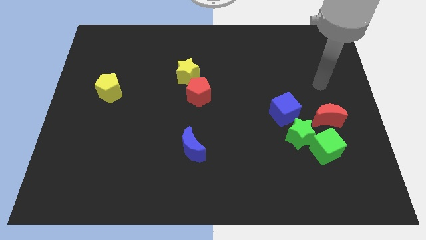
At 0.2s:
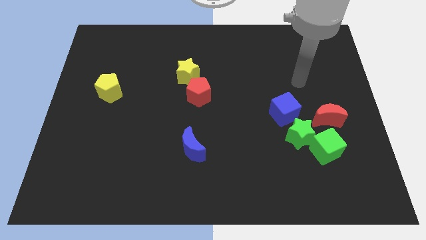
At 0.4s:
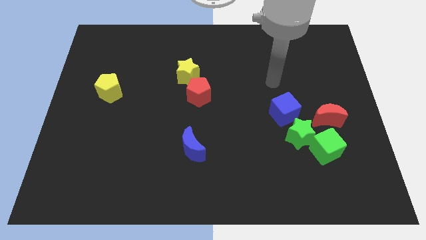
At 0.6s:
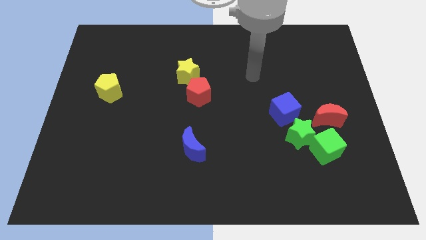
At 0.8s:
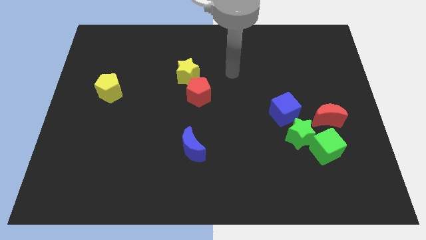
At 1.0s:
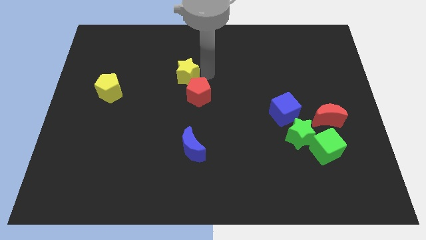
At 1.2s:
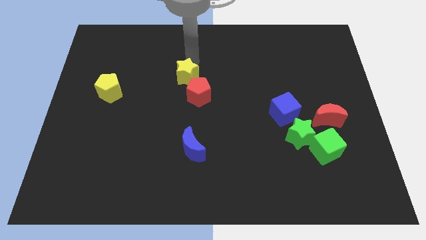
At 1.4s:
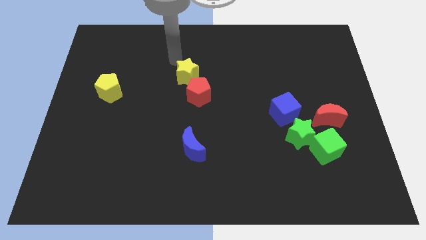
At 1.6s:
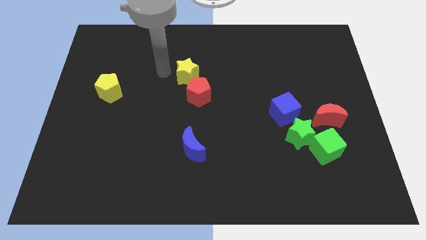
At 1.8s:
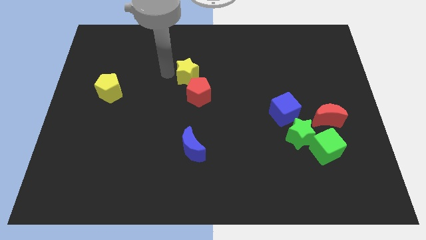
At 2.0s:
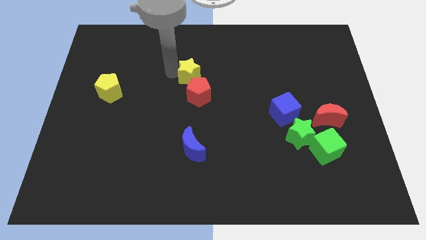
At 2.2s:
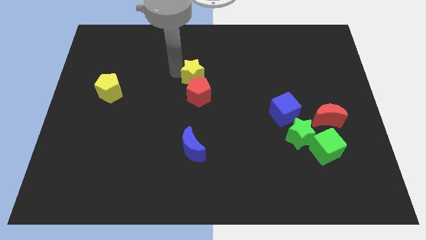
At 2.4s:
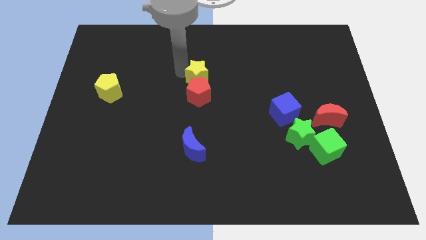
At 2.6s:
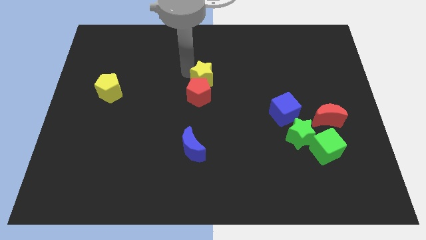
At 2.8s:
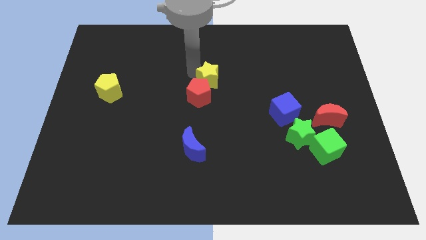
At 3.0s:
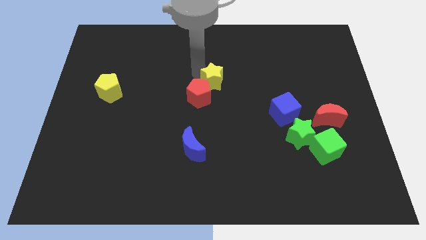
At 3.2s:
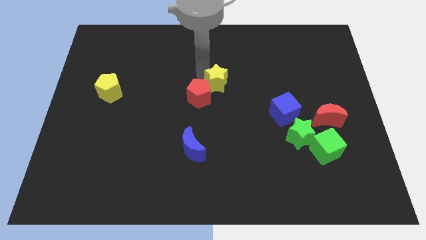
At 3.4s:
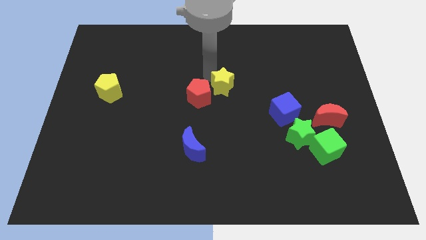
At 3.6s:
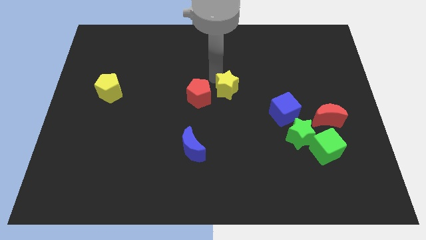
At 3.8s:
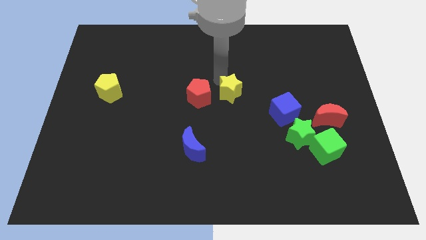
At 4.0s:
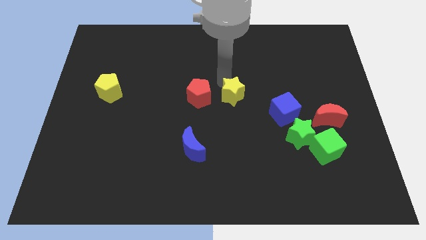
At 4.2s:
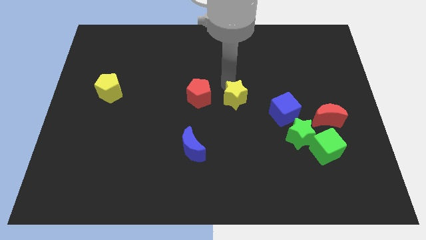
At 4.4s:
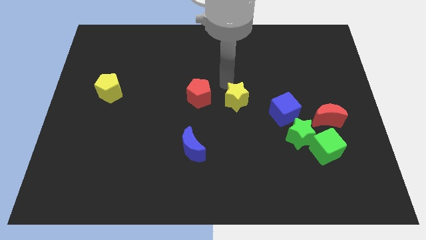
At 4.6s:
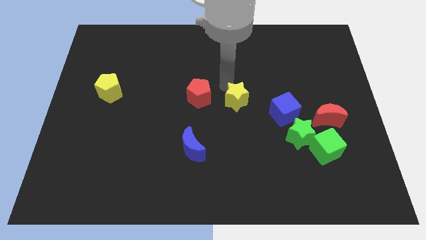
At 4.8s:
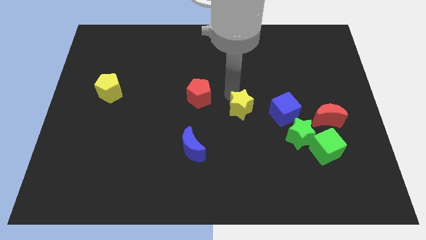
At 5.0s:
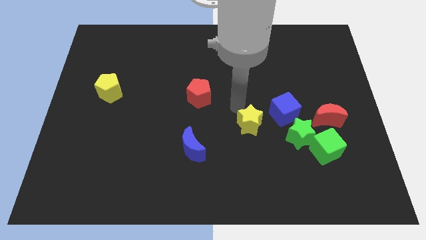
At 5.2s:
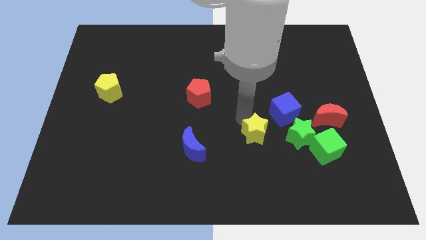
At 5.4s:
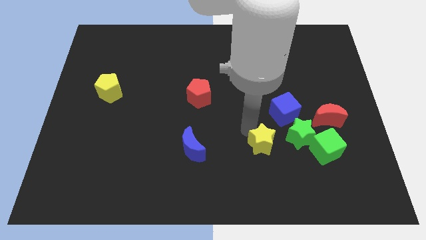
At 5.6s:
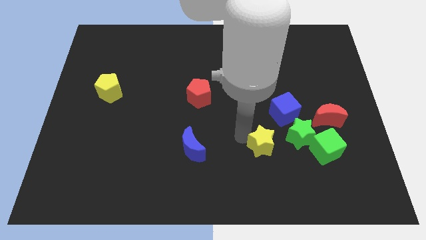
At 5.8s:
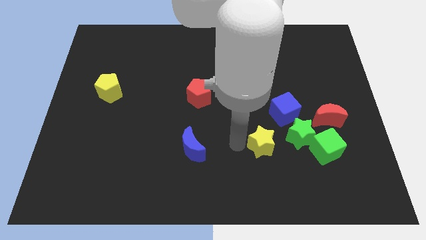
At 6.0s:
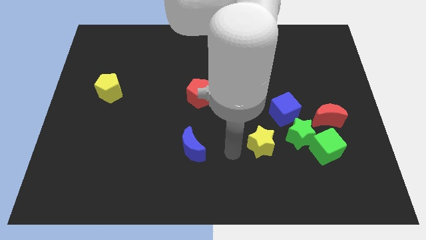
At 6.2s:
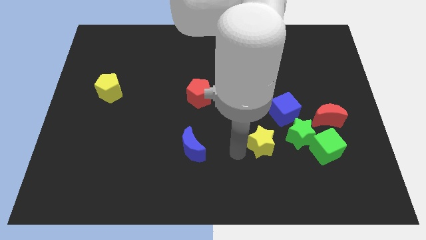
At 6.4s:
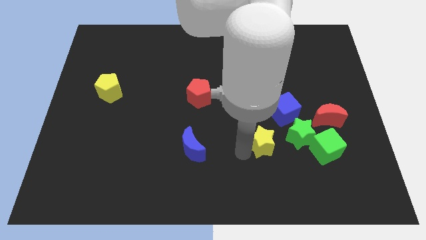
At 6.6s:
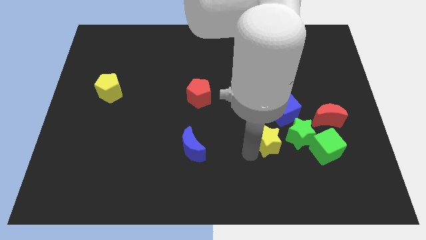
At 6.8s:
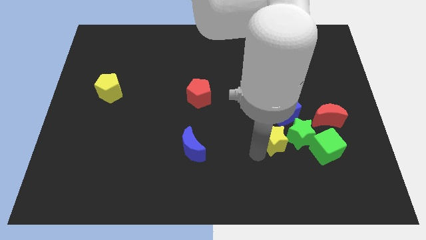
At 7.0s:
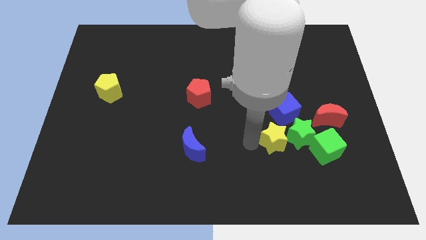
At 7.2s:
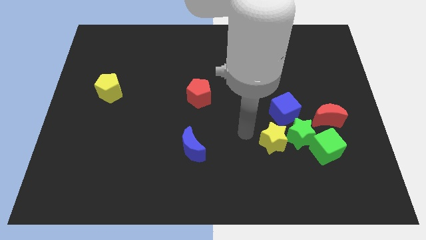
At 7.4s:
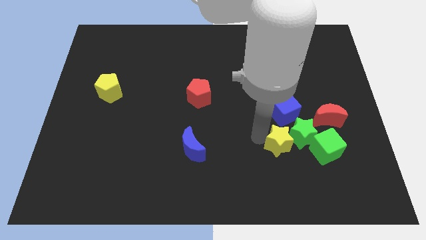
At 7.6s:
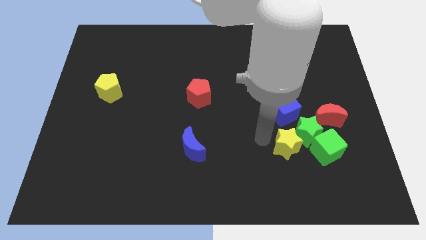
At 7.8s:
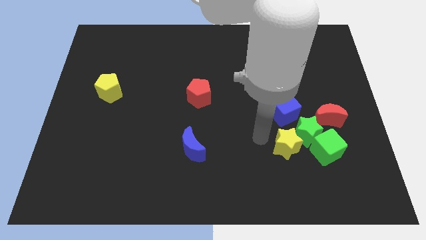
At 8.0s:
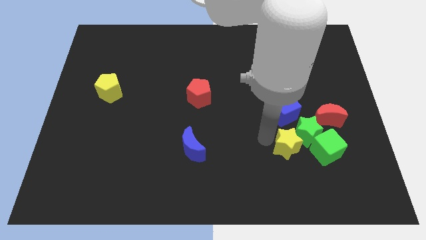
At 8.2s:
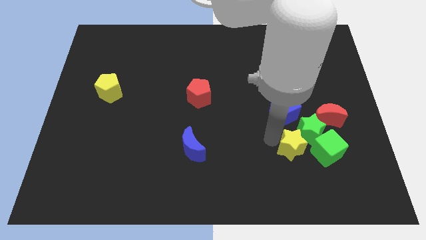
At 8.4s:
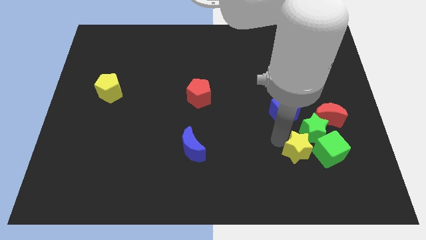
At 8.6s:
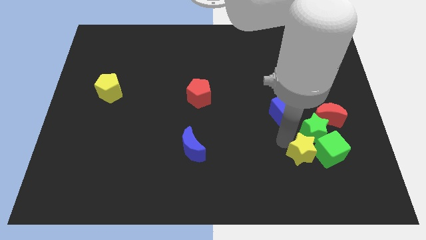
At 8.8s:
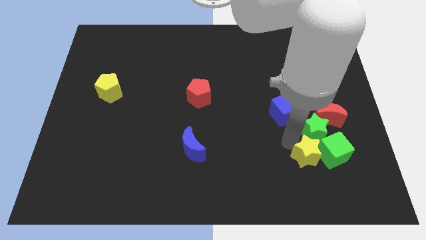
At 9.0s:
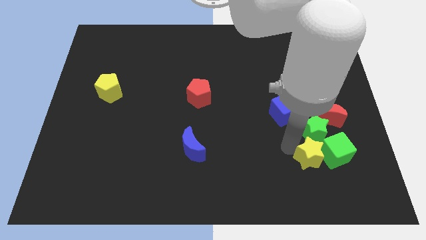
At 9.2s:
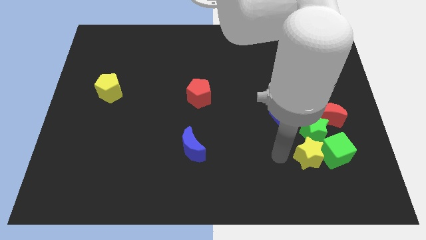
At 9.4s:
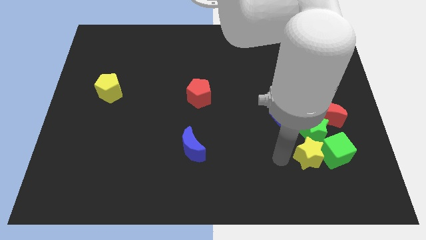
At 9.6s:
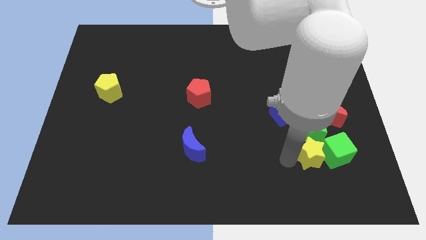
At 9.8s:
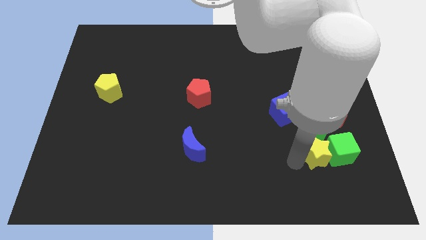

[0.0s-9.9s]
put the yellow star to the bottom of the red moon

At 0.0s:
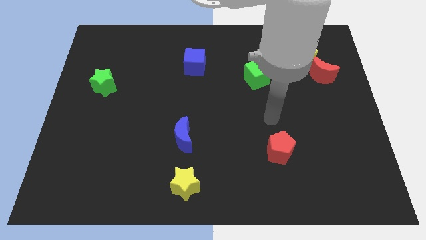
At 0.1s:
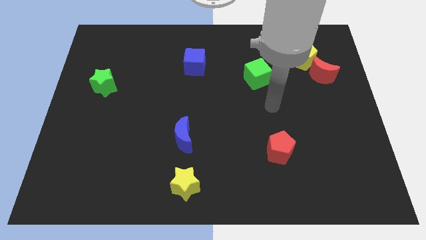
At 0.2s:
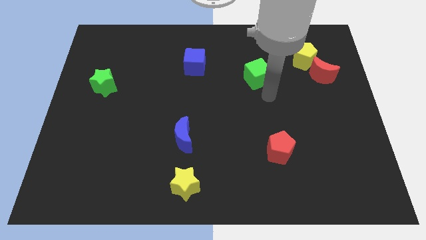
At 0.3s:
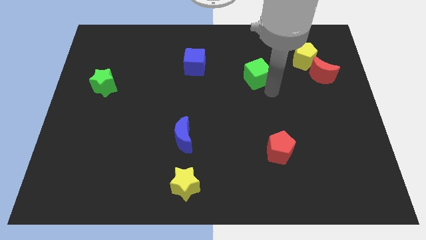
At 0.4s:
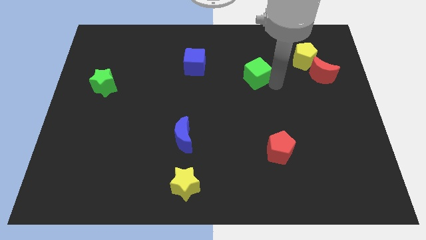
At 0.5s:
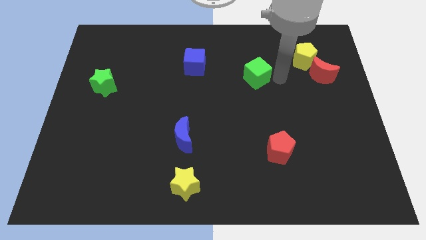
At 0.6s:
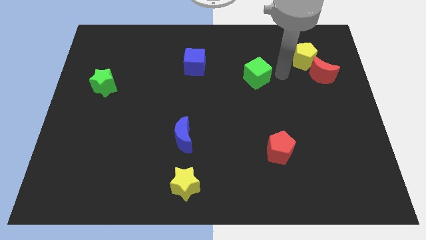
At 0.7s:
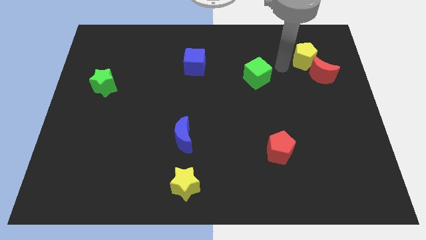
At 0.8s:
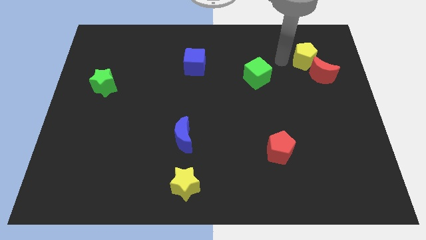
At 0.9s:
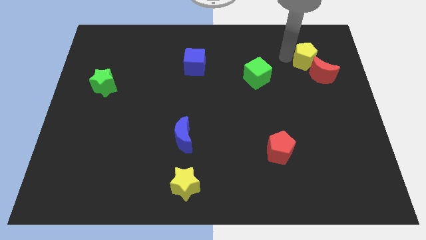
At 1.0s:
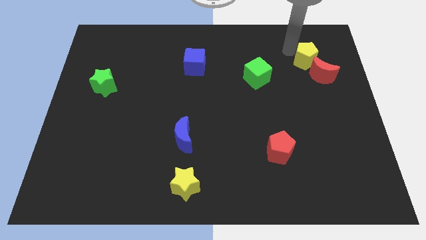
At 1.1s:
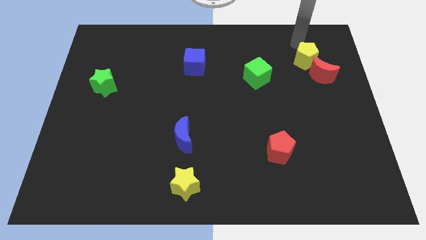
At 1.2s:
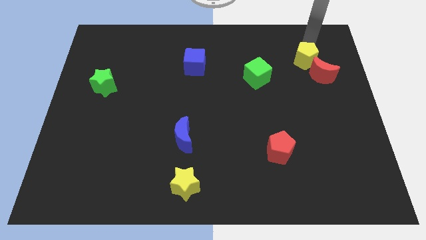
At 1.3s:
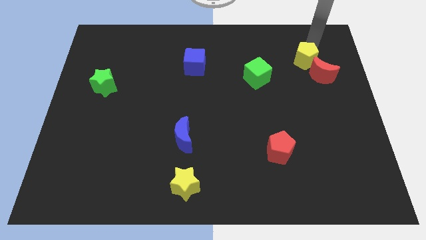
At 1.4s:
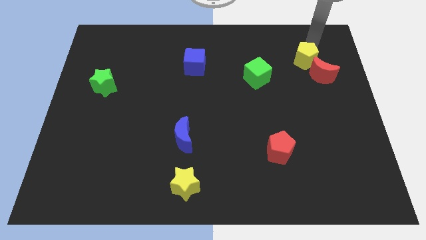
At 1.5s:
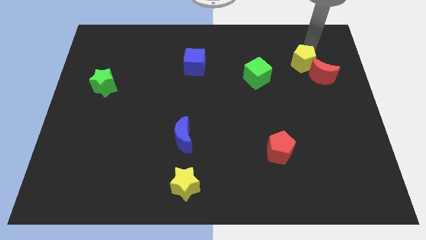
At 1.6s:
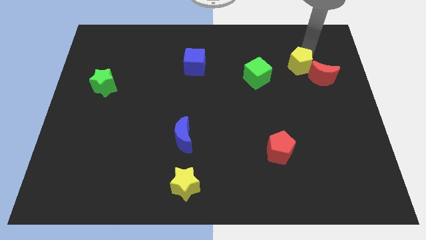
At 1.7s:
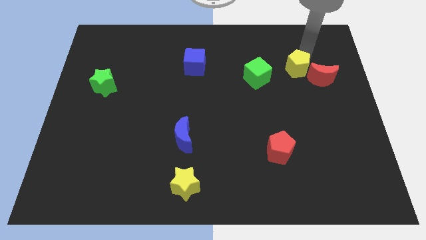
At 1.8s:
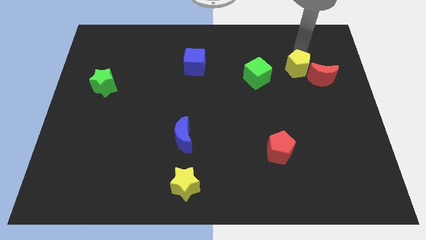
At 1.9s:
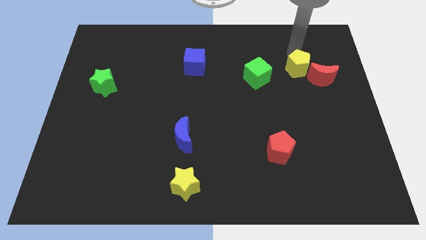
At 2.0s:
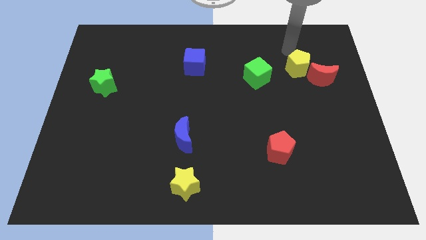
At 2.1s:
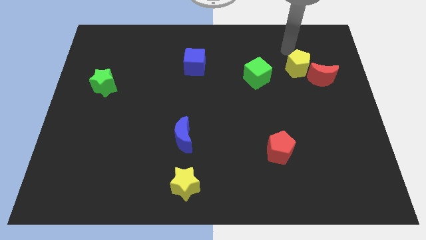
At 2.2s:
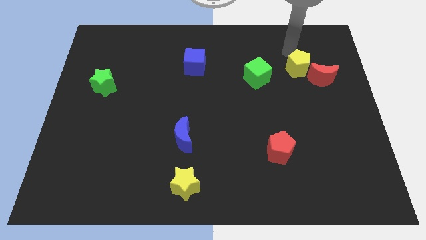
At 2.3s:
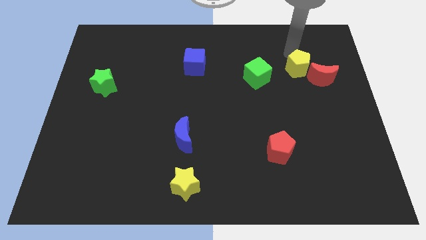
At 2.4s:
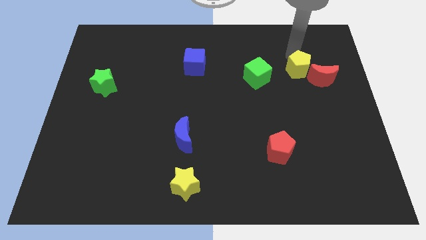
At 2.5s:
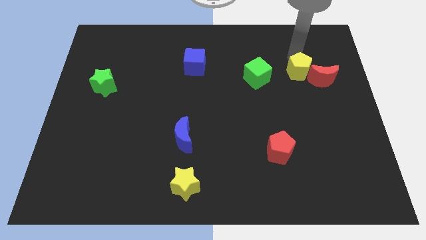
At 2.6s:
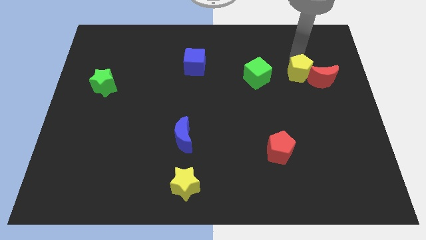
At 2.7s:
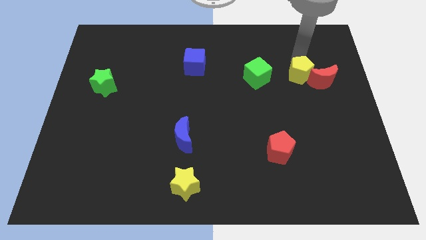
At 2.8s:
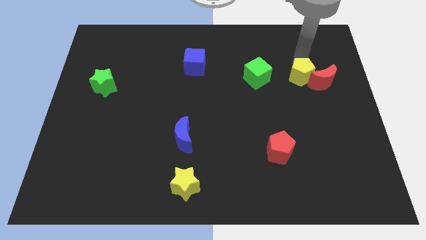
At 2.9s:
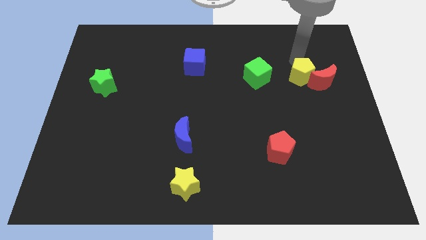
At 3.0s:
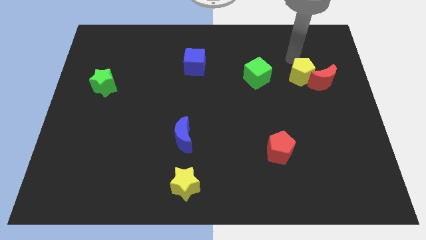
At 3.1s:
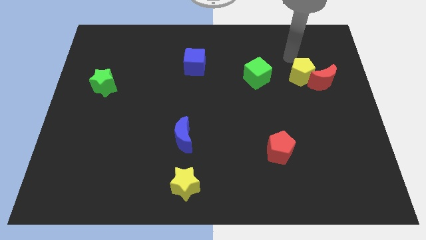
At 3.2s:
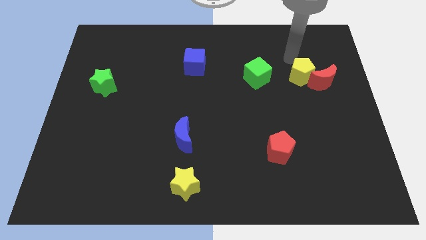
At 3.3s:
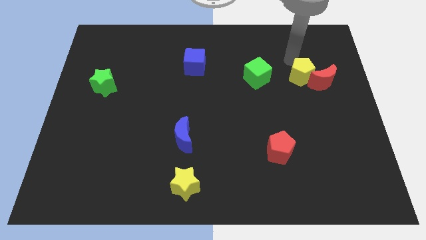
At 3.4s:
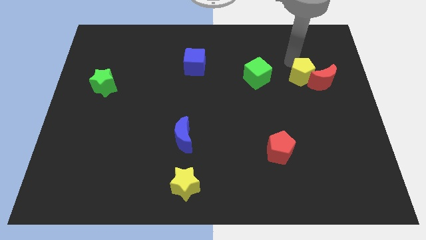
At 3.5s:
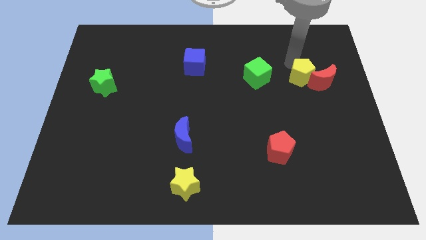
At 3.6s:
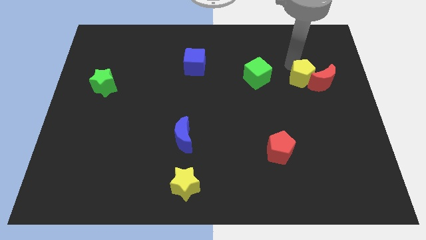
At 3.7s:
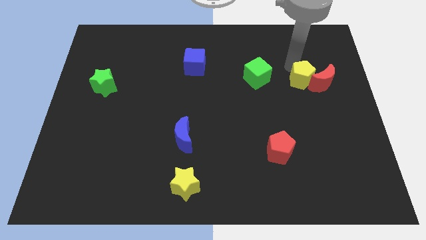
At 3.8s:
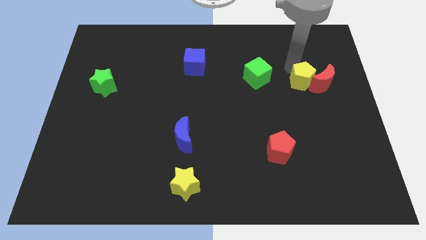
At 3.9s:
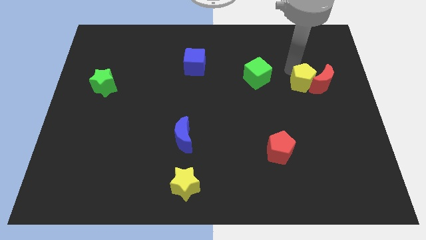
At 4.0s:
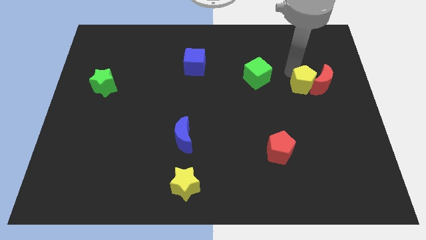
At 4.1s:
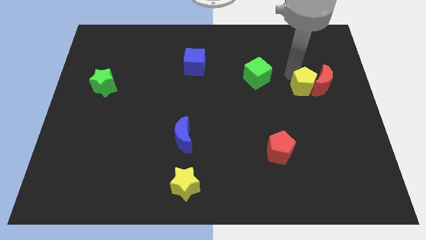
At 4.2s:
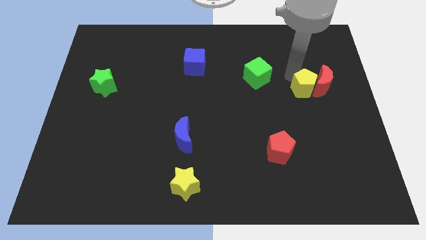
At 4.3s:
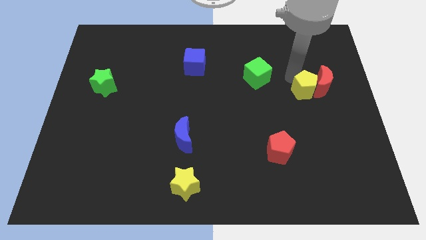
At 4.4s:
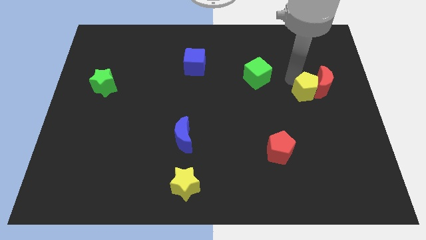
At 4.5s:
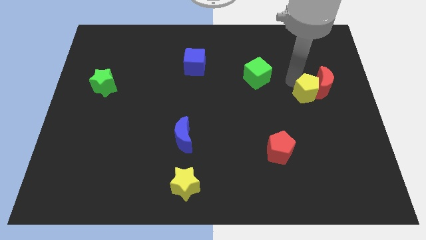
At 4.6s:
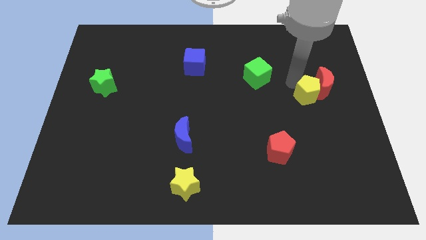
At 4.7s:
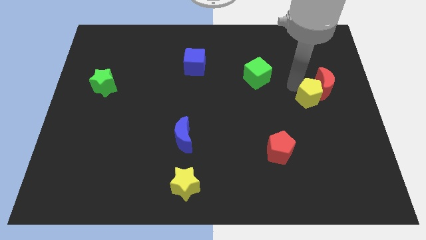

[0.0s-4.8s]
move the yellow pentagon to the bottom of the red moon
